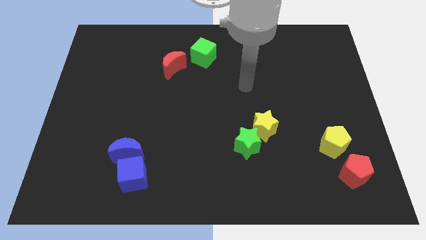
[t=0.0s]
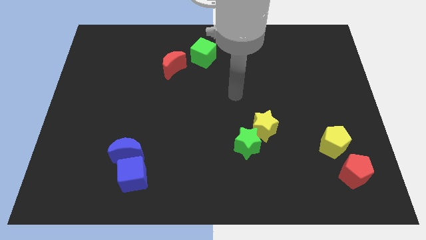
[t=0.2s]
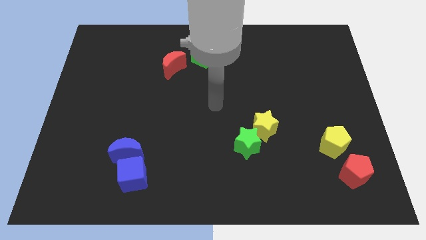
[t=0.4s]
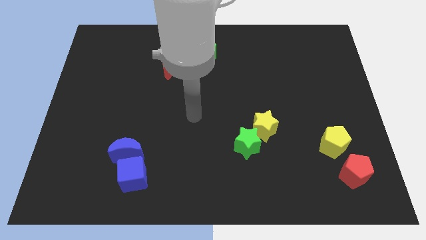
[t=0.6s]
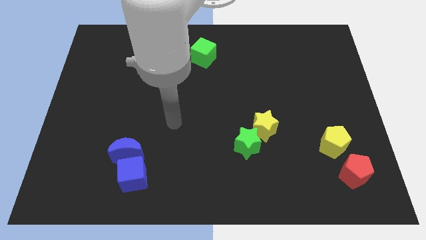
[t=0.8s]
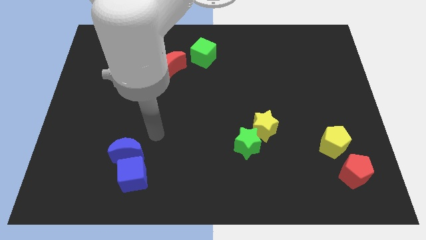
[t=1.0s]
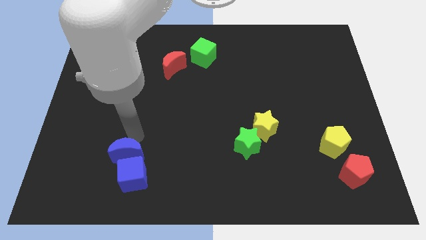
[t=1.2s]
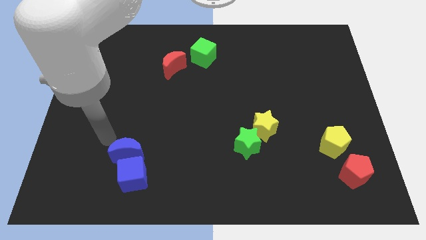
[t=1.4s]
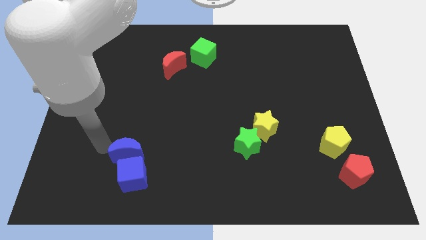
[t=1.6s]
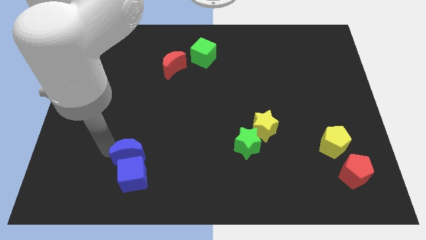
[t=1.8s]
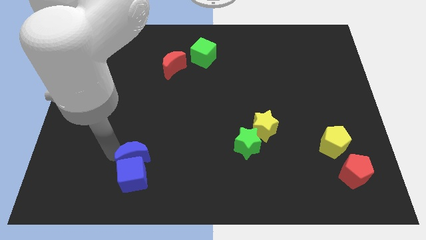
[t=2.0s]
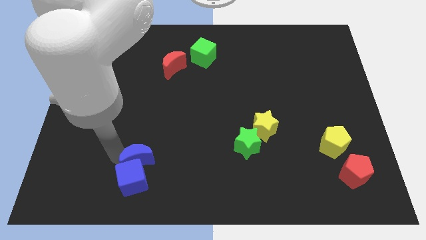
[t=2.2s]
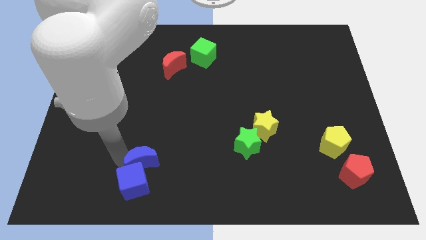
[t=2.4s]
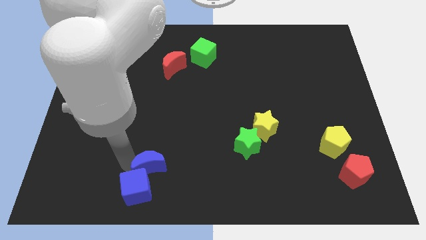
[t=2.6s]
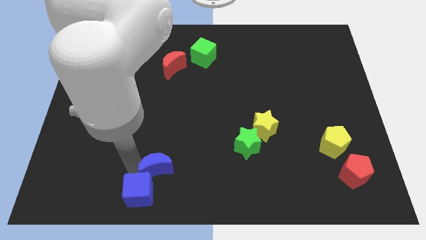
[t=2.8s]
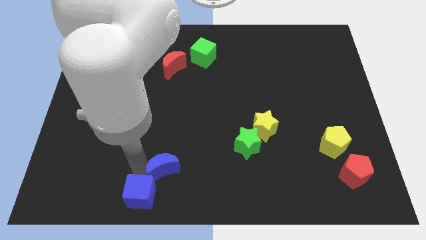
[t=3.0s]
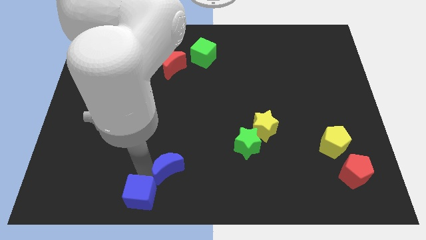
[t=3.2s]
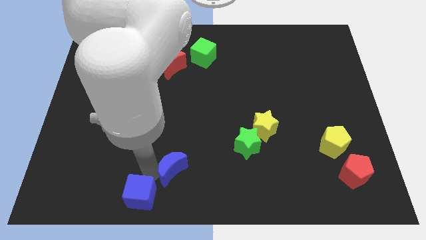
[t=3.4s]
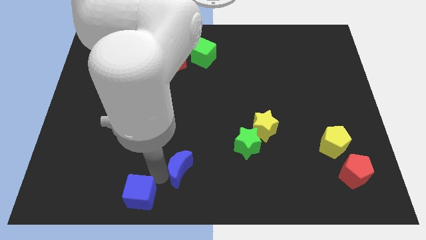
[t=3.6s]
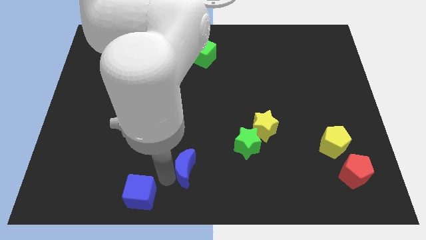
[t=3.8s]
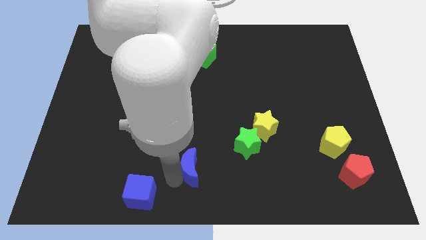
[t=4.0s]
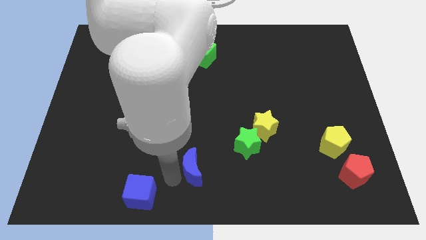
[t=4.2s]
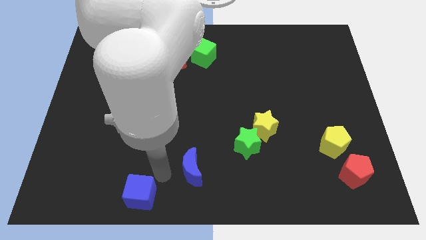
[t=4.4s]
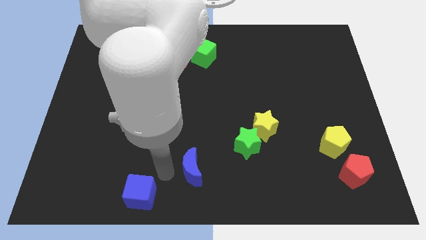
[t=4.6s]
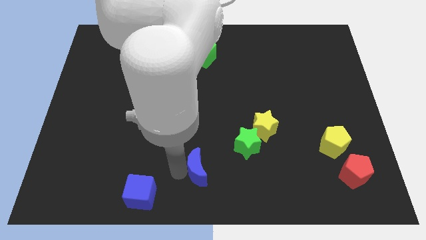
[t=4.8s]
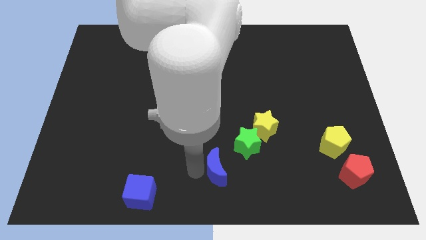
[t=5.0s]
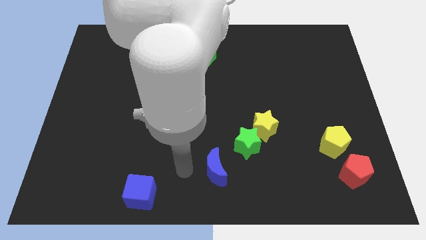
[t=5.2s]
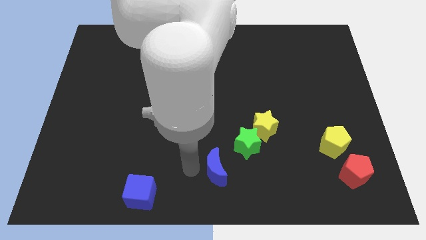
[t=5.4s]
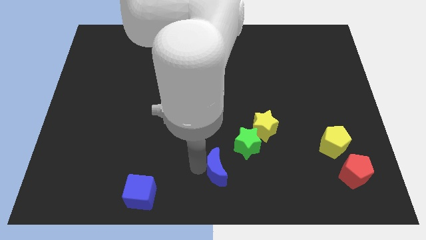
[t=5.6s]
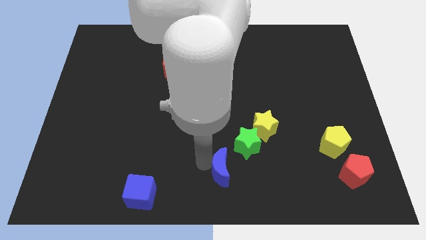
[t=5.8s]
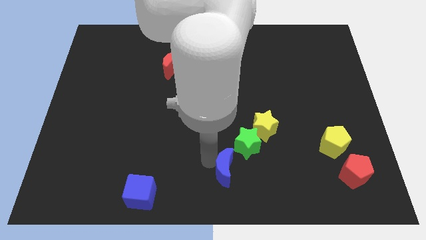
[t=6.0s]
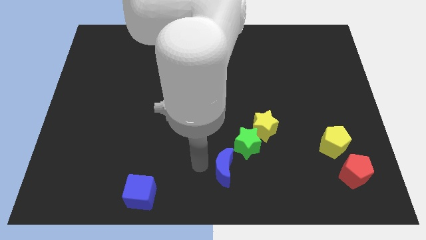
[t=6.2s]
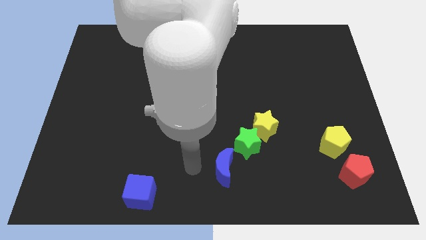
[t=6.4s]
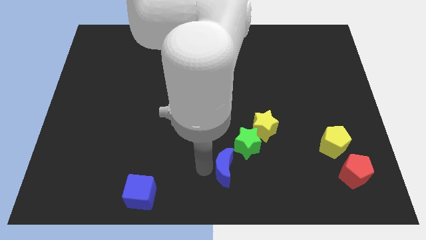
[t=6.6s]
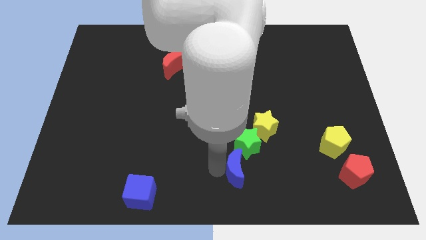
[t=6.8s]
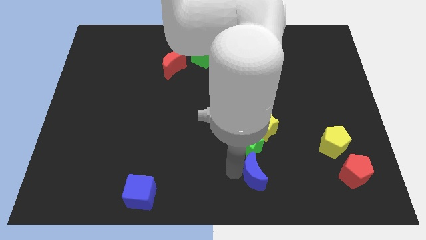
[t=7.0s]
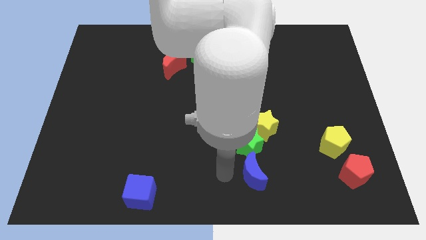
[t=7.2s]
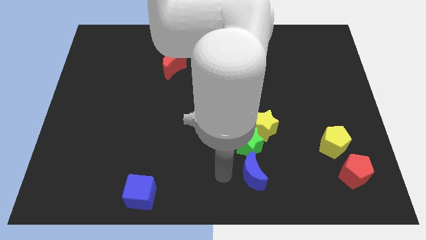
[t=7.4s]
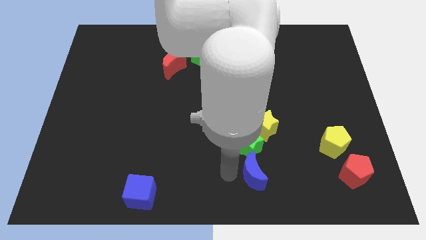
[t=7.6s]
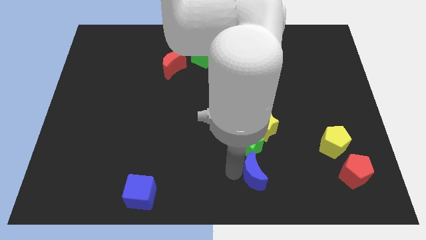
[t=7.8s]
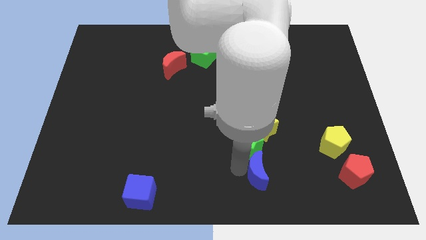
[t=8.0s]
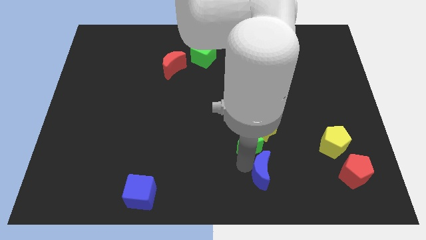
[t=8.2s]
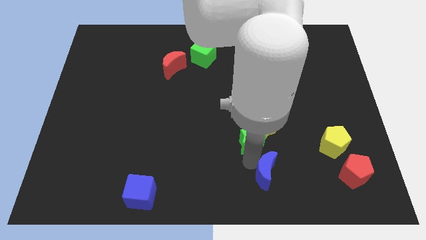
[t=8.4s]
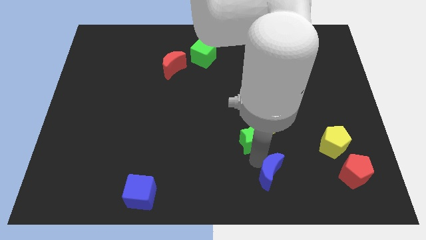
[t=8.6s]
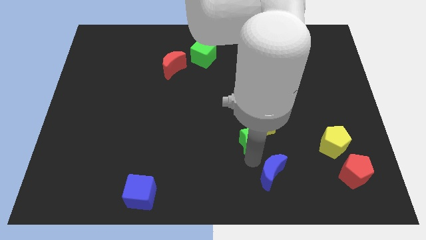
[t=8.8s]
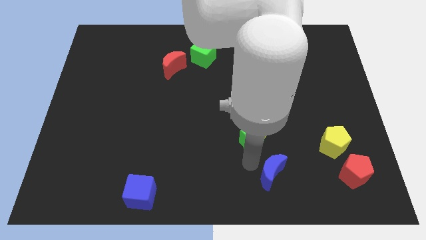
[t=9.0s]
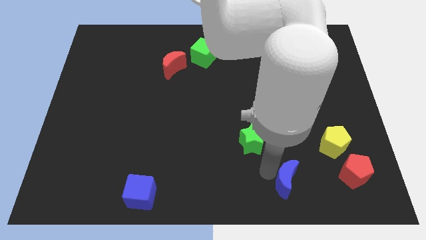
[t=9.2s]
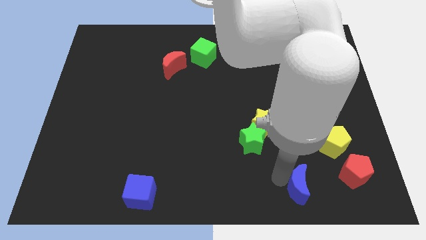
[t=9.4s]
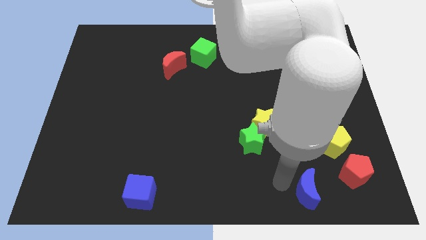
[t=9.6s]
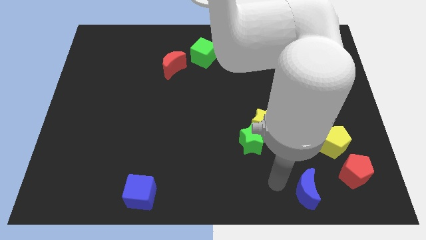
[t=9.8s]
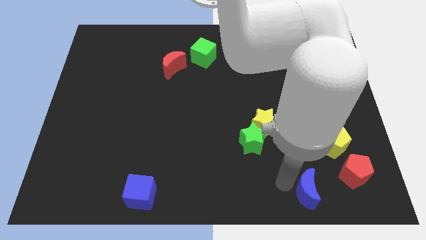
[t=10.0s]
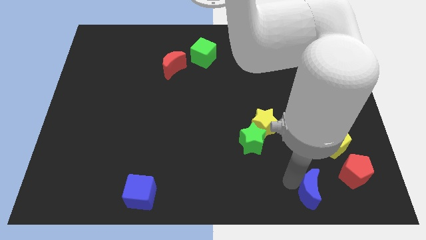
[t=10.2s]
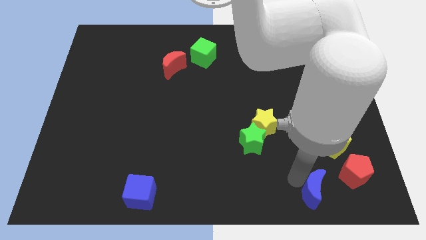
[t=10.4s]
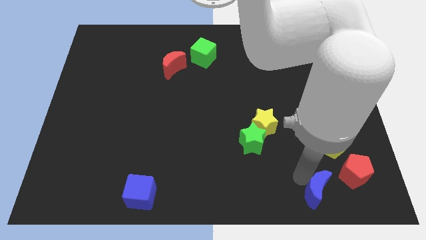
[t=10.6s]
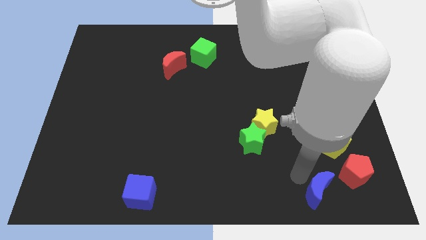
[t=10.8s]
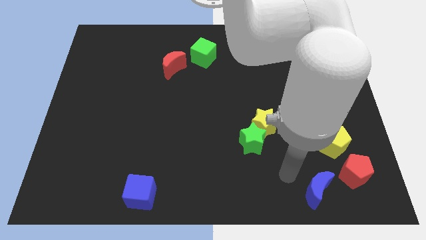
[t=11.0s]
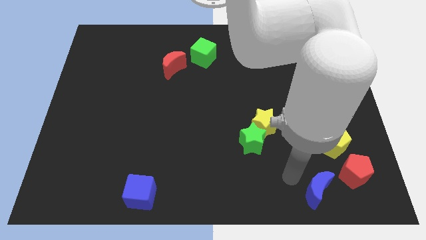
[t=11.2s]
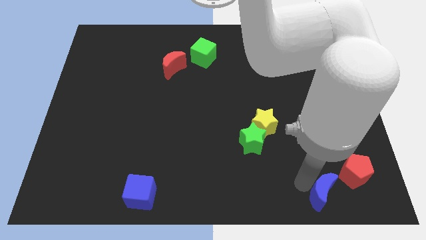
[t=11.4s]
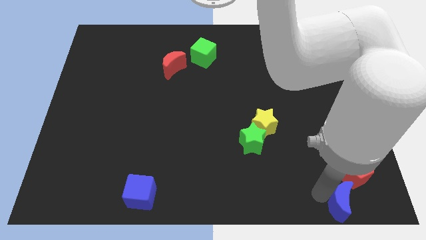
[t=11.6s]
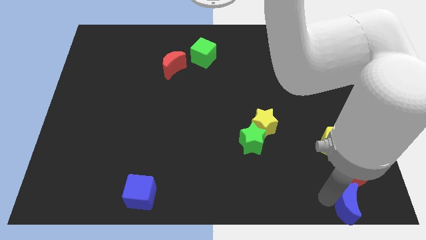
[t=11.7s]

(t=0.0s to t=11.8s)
slide the blue moon to the bottom right of the board

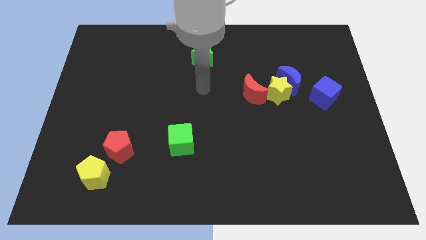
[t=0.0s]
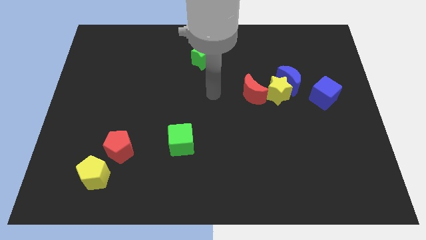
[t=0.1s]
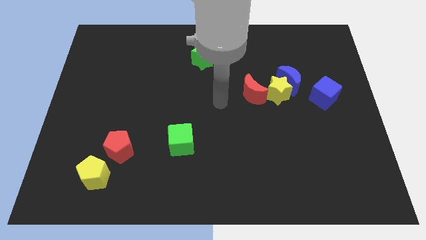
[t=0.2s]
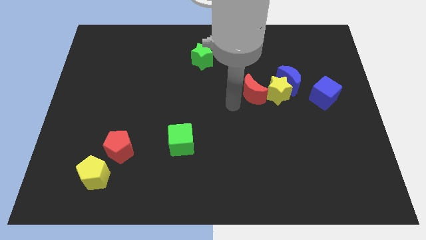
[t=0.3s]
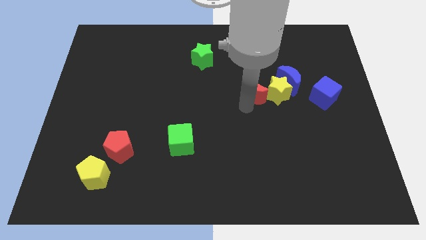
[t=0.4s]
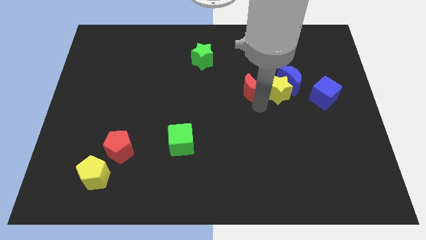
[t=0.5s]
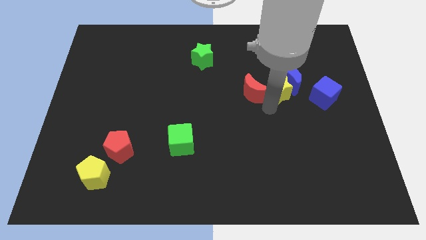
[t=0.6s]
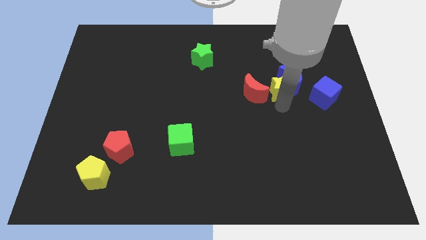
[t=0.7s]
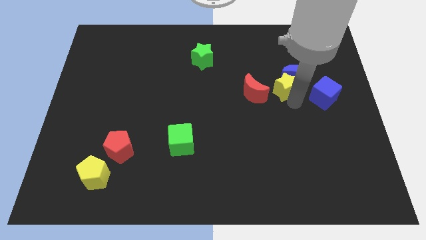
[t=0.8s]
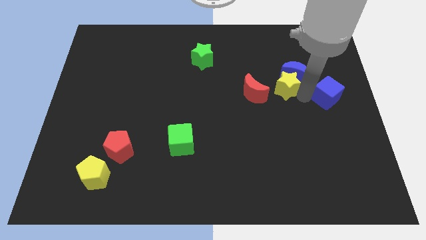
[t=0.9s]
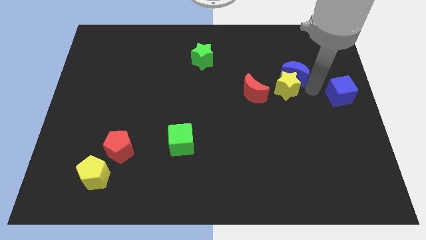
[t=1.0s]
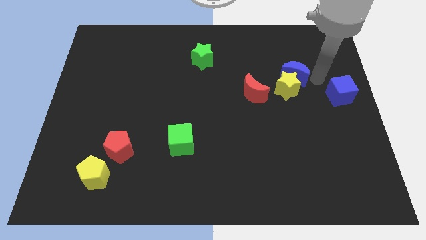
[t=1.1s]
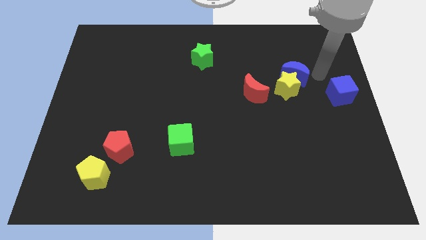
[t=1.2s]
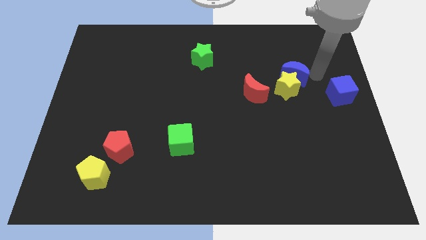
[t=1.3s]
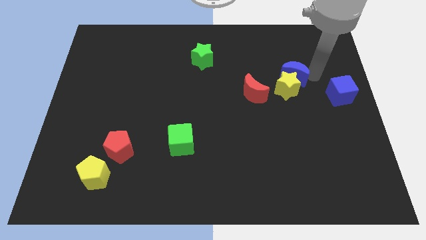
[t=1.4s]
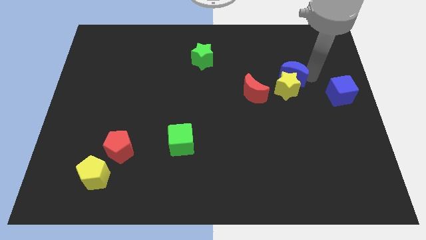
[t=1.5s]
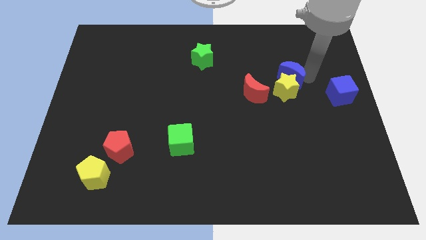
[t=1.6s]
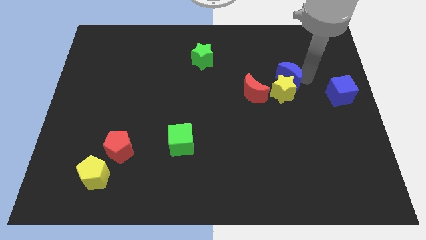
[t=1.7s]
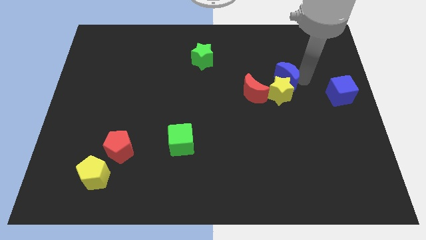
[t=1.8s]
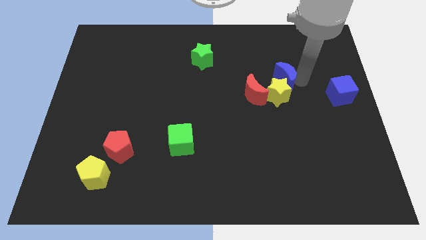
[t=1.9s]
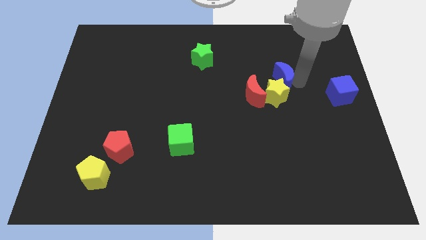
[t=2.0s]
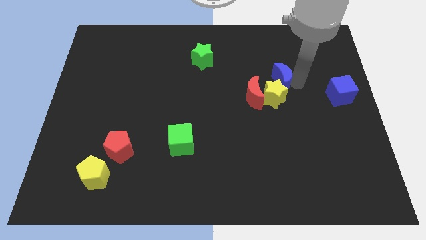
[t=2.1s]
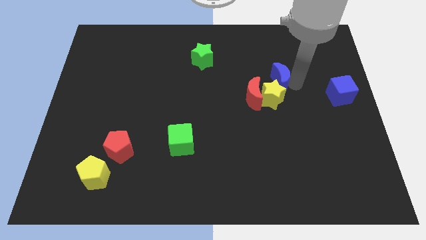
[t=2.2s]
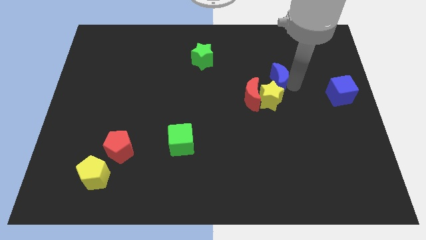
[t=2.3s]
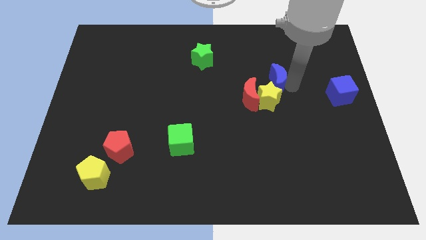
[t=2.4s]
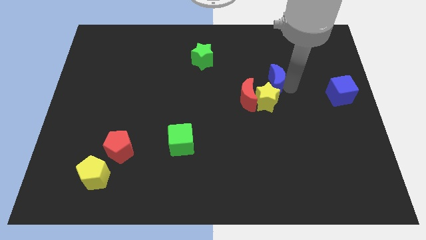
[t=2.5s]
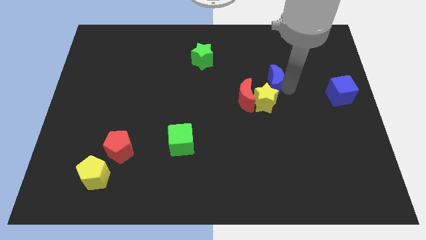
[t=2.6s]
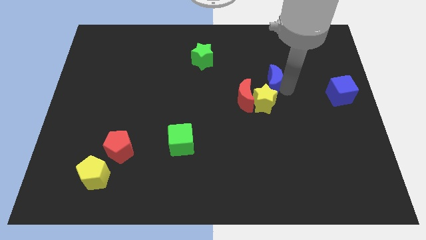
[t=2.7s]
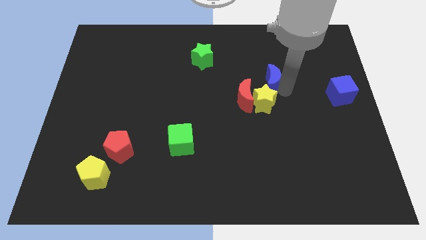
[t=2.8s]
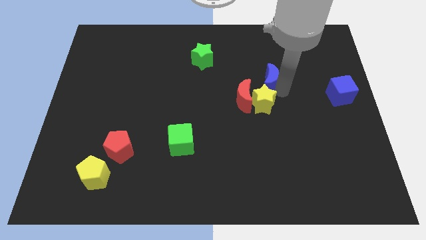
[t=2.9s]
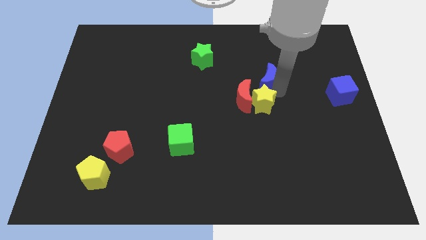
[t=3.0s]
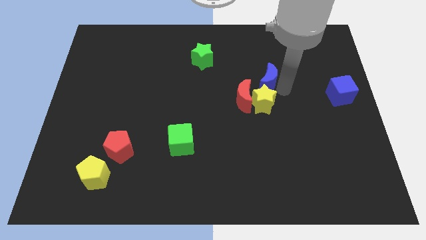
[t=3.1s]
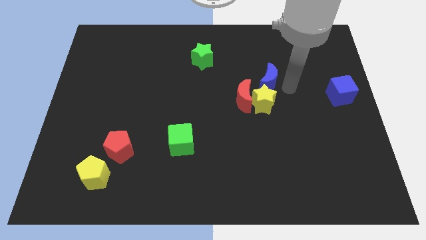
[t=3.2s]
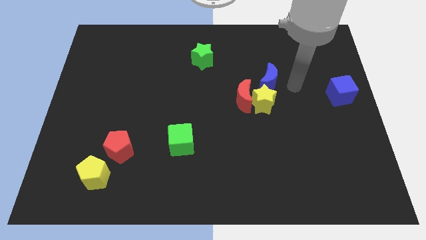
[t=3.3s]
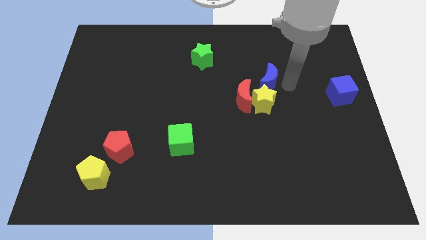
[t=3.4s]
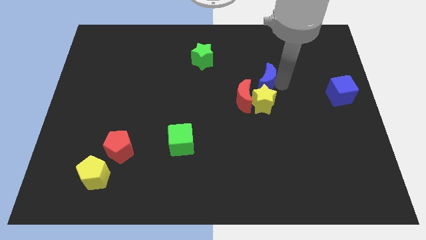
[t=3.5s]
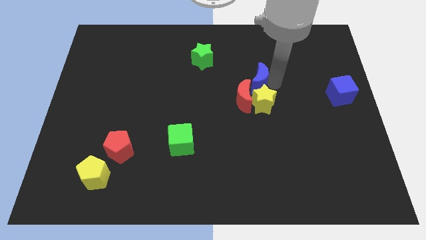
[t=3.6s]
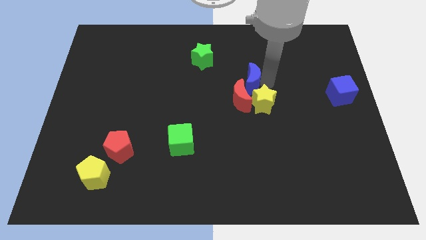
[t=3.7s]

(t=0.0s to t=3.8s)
push the blue moon to the center of the board
